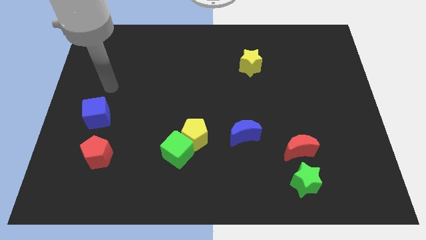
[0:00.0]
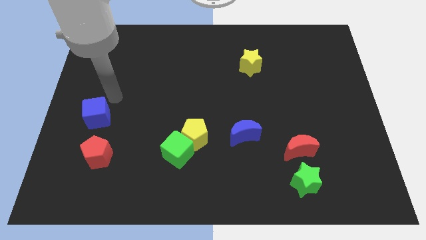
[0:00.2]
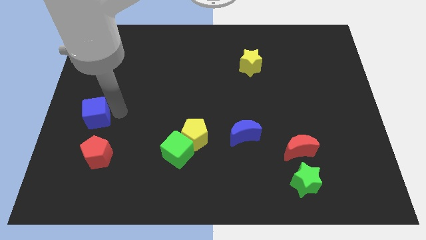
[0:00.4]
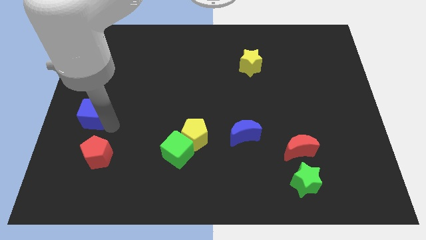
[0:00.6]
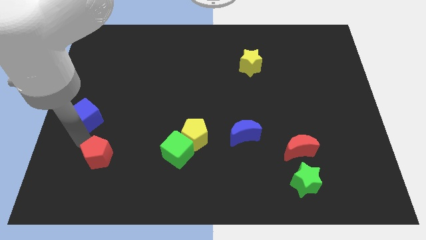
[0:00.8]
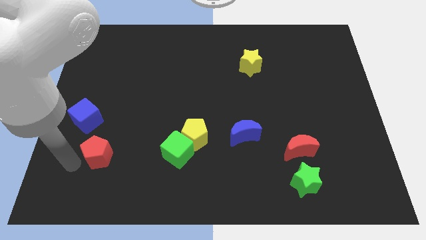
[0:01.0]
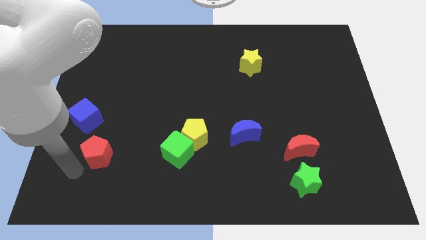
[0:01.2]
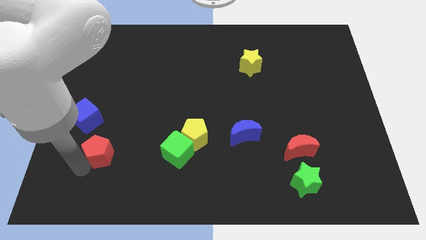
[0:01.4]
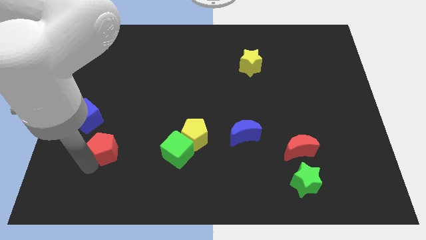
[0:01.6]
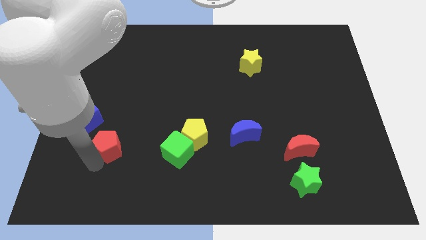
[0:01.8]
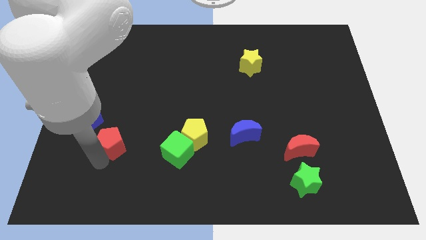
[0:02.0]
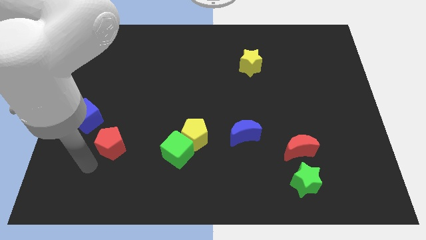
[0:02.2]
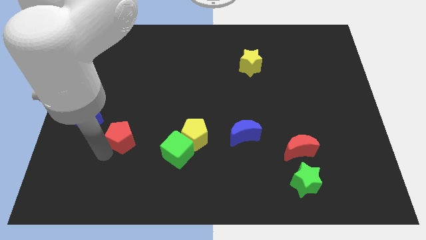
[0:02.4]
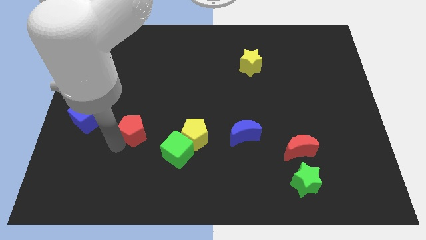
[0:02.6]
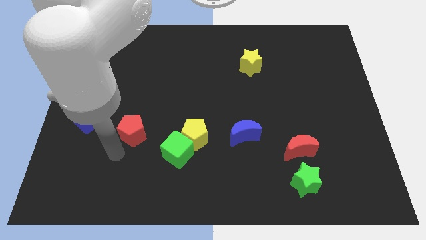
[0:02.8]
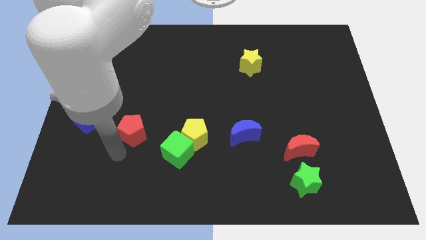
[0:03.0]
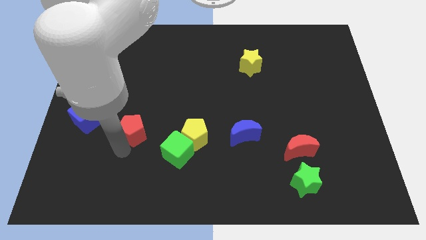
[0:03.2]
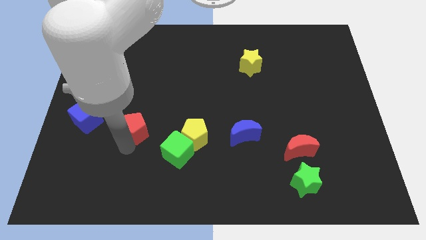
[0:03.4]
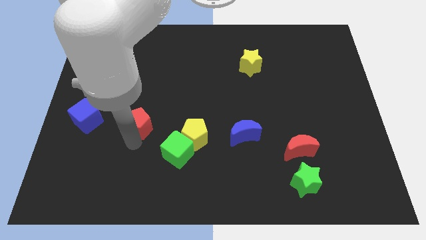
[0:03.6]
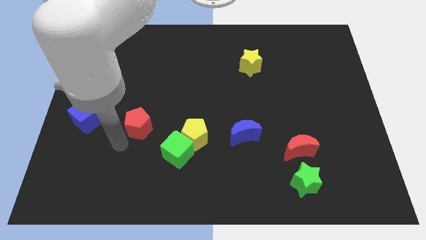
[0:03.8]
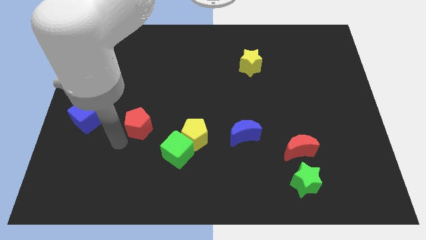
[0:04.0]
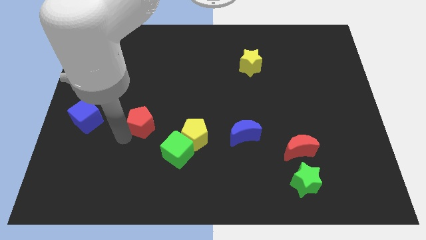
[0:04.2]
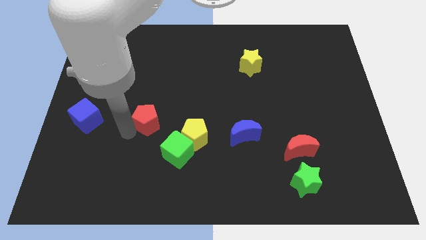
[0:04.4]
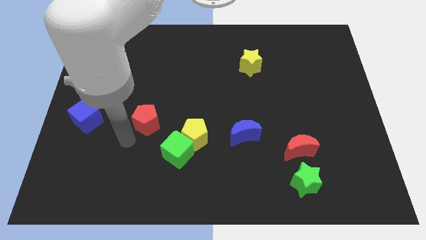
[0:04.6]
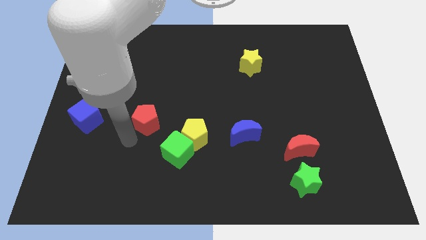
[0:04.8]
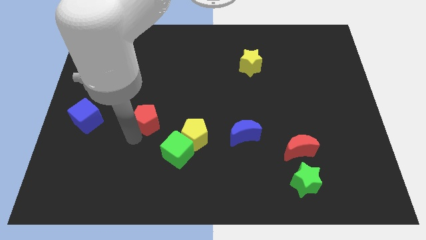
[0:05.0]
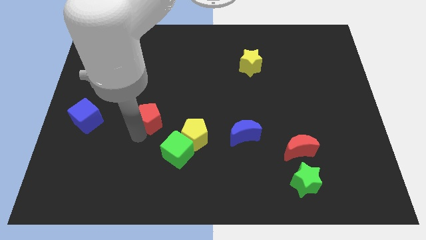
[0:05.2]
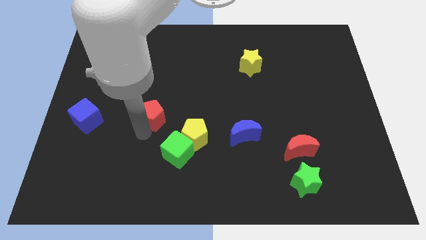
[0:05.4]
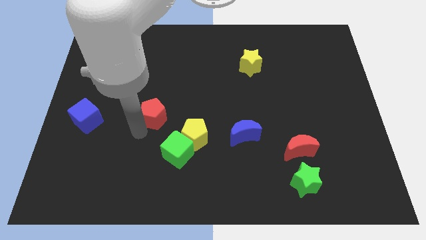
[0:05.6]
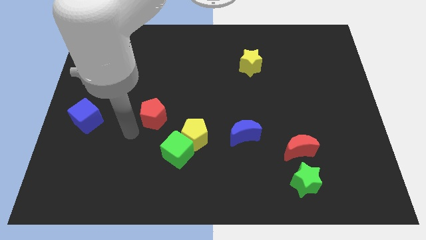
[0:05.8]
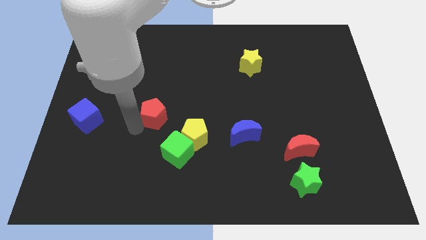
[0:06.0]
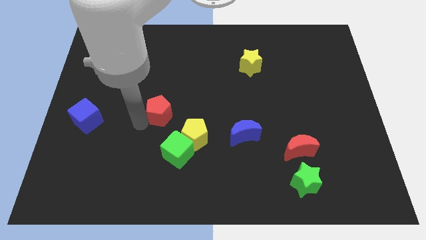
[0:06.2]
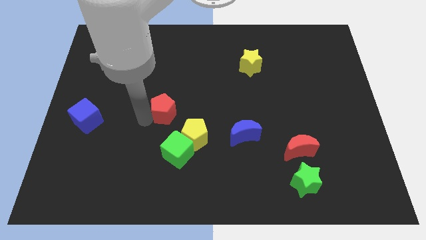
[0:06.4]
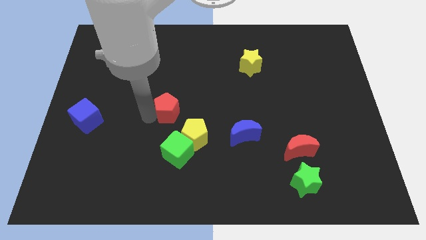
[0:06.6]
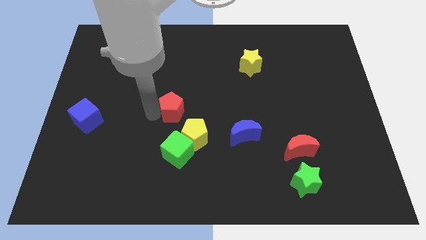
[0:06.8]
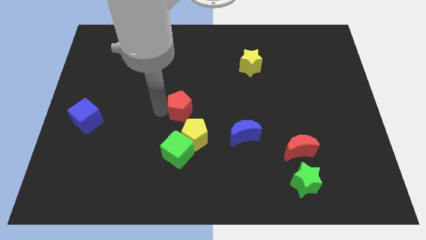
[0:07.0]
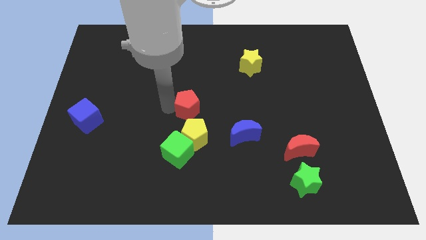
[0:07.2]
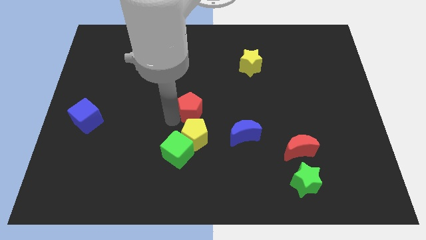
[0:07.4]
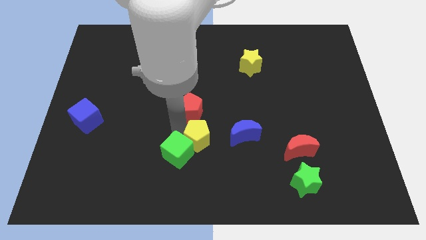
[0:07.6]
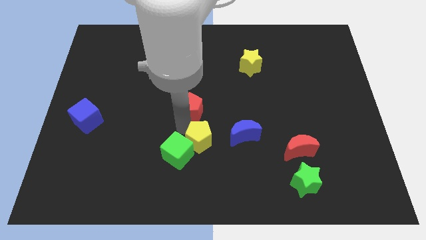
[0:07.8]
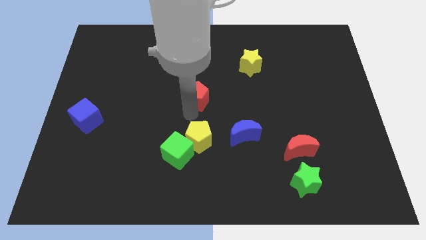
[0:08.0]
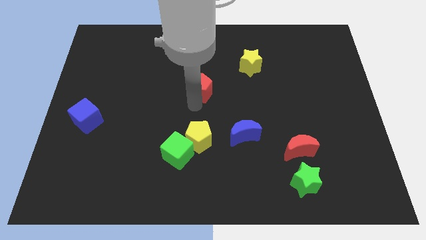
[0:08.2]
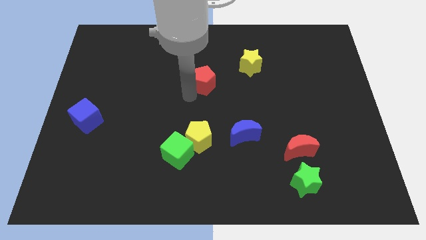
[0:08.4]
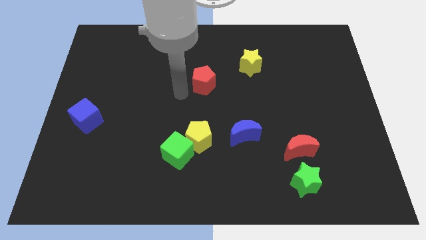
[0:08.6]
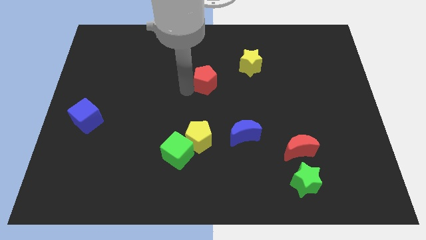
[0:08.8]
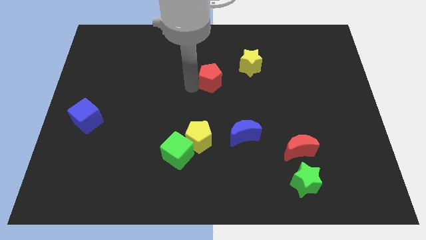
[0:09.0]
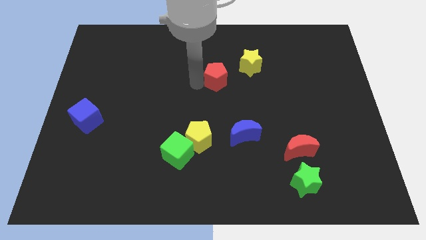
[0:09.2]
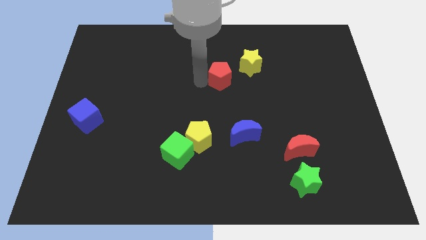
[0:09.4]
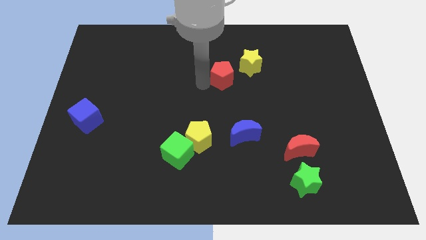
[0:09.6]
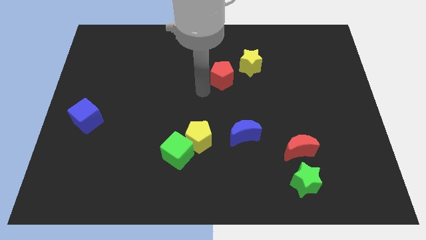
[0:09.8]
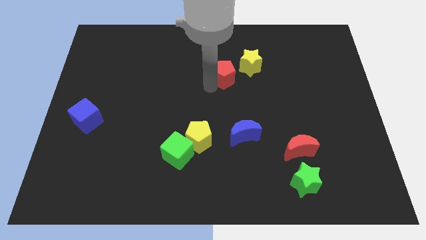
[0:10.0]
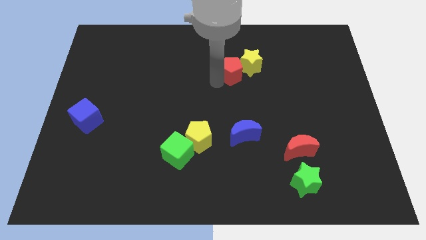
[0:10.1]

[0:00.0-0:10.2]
slide the red pentagon next to the yellow star

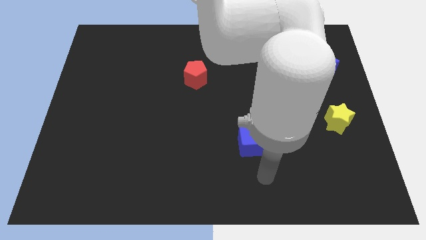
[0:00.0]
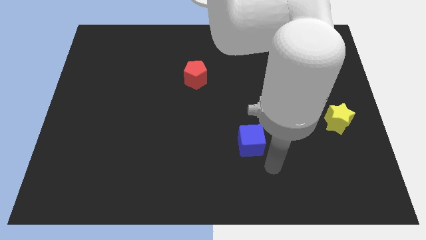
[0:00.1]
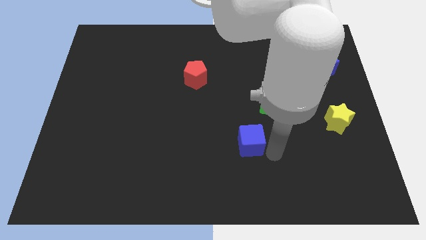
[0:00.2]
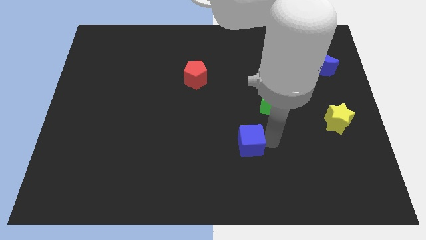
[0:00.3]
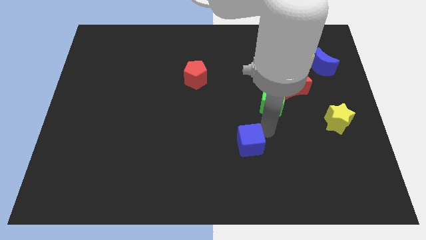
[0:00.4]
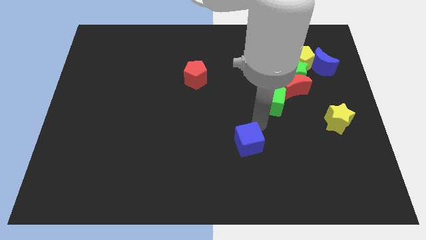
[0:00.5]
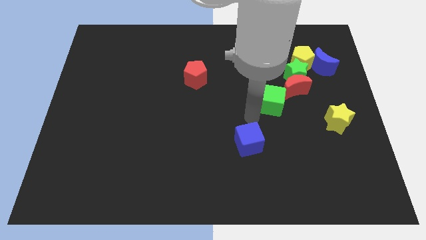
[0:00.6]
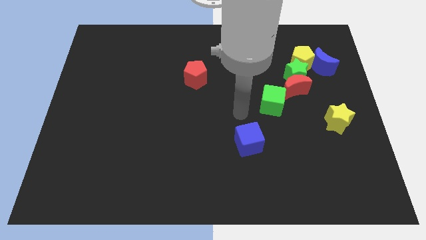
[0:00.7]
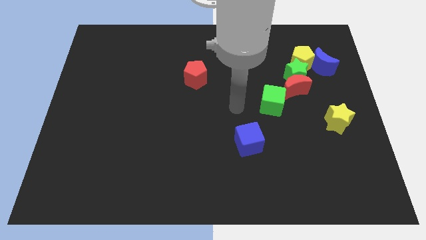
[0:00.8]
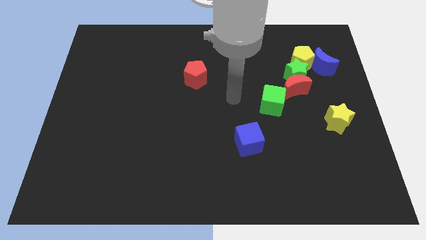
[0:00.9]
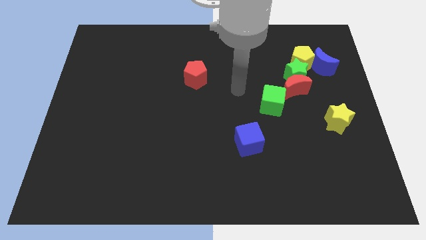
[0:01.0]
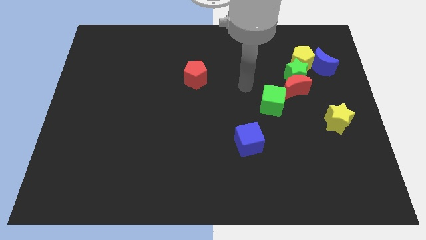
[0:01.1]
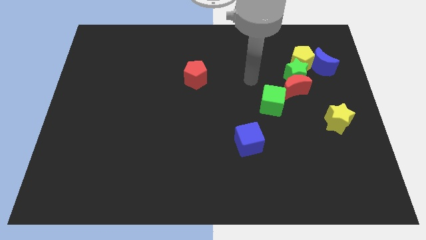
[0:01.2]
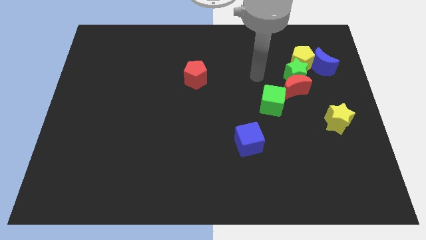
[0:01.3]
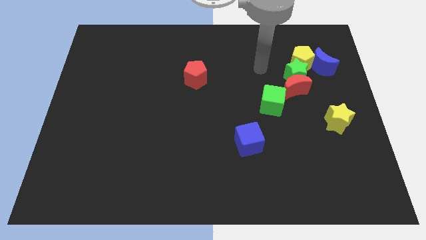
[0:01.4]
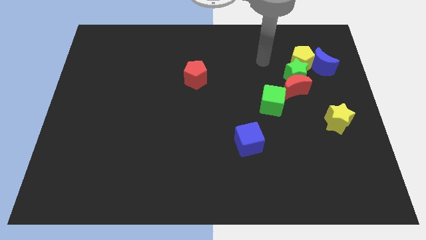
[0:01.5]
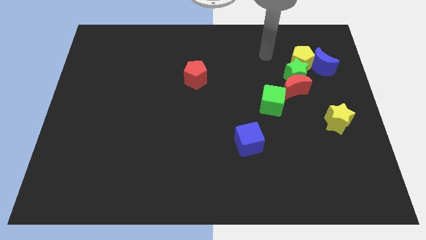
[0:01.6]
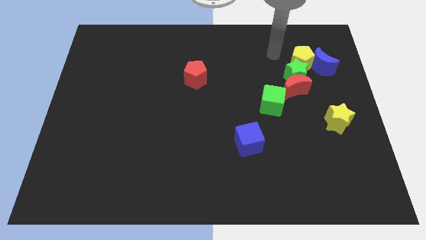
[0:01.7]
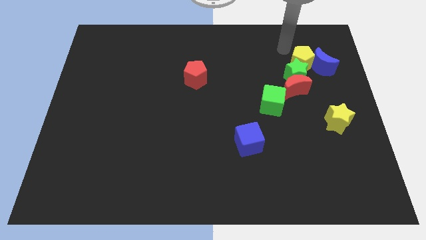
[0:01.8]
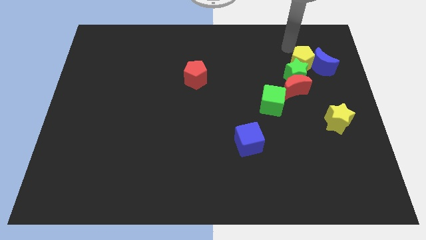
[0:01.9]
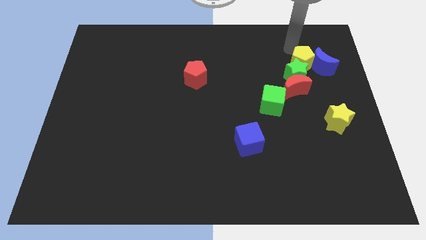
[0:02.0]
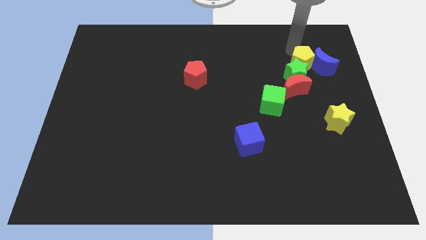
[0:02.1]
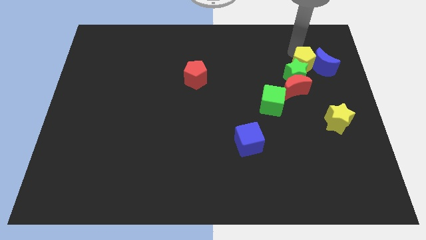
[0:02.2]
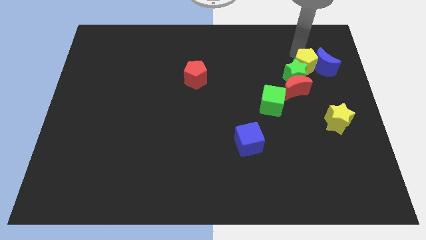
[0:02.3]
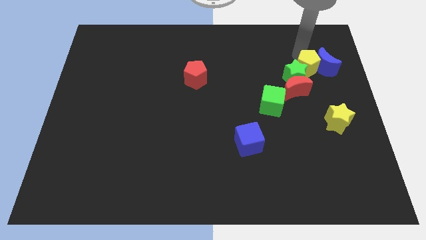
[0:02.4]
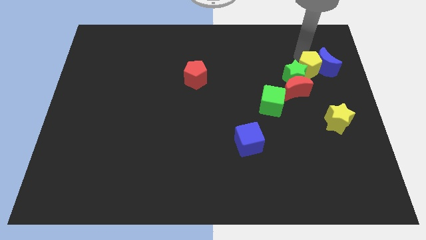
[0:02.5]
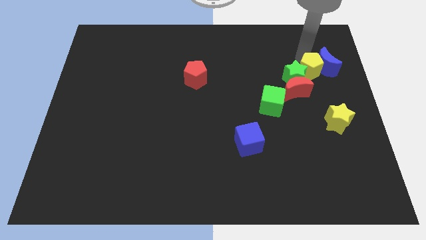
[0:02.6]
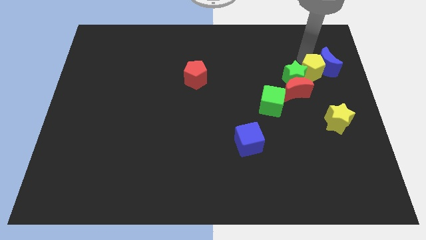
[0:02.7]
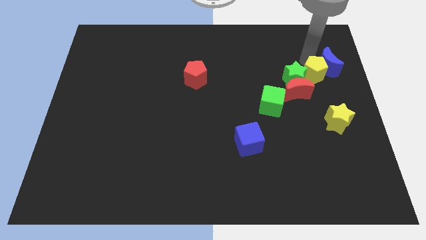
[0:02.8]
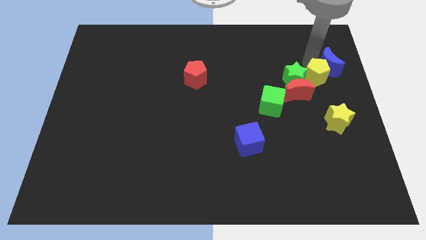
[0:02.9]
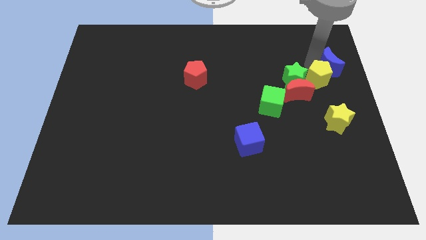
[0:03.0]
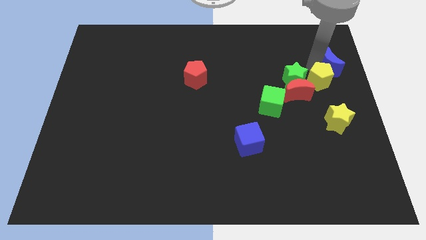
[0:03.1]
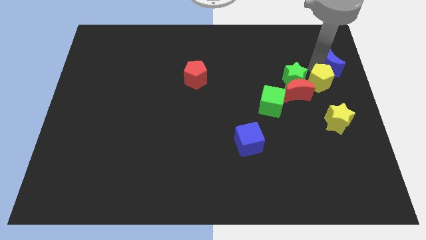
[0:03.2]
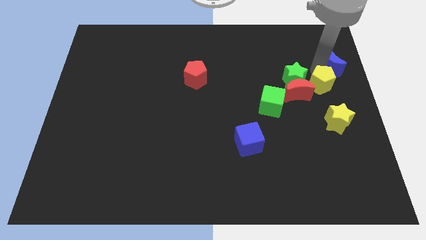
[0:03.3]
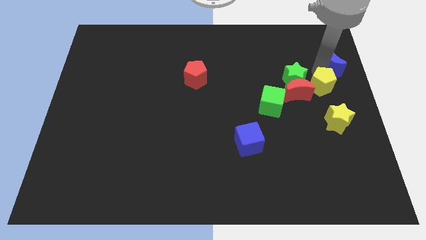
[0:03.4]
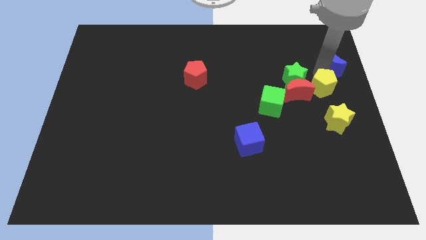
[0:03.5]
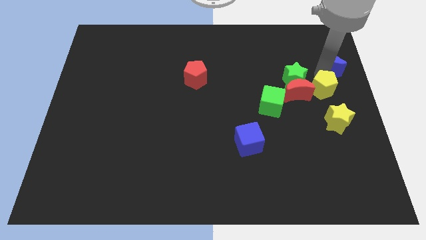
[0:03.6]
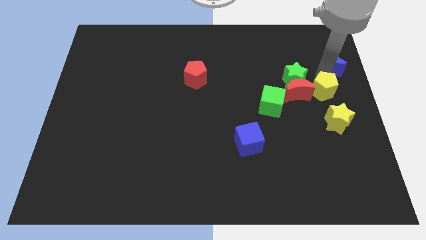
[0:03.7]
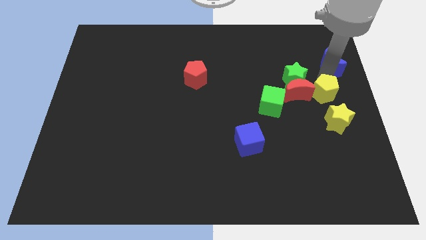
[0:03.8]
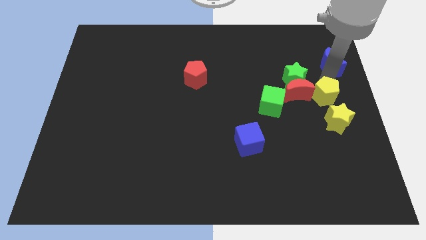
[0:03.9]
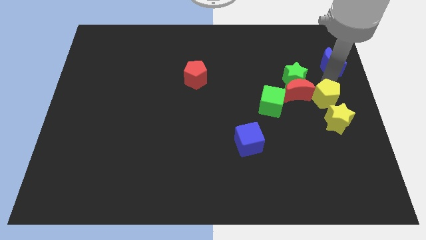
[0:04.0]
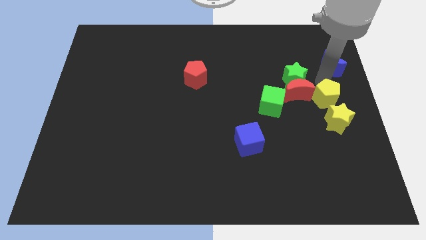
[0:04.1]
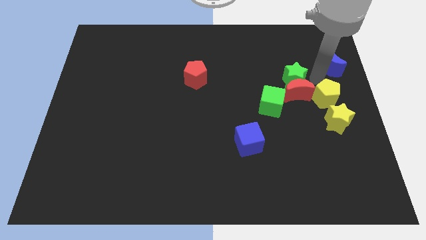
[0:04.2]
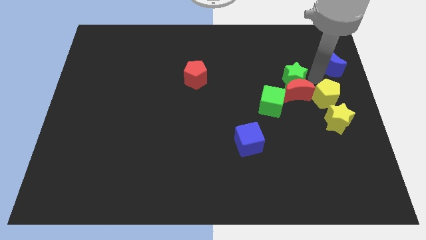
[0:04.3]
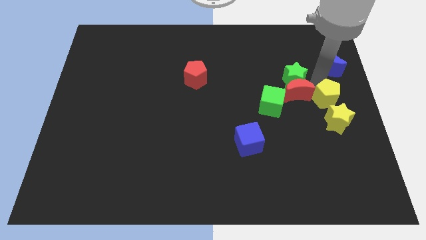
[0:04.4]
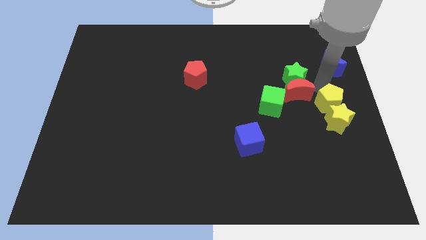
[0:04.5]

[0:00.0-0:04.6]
slide the yellow pentagon close to the yellow star
